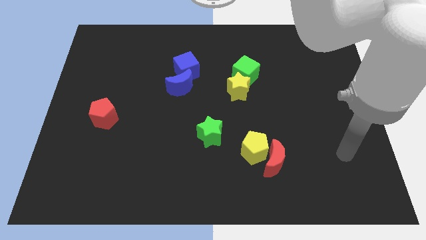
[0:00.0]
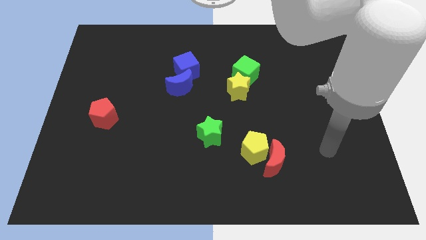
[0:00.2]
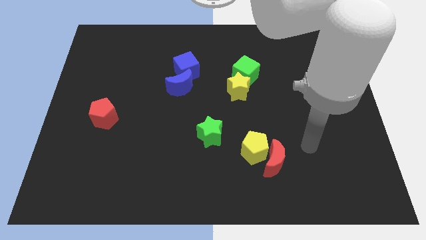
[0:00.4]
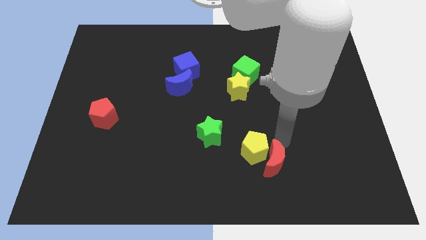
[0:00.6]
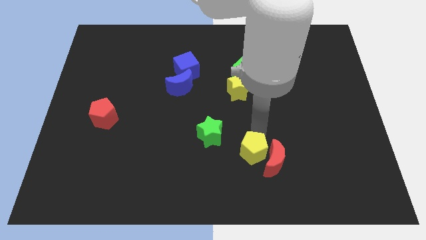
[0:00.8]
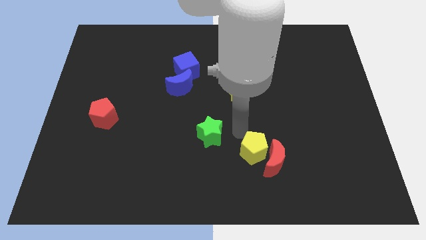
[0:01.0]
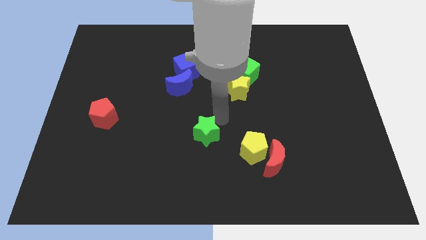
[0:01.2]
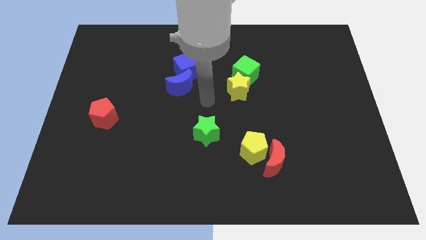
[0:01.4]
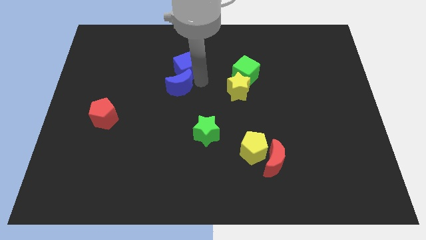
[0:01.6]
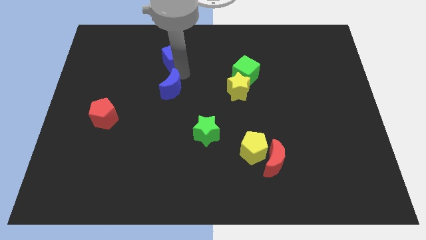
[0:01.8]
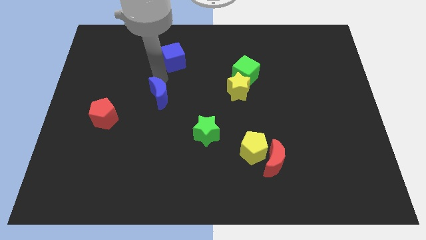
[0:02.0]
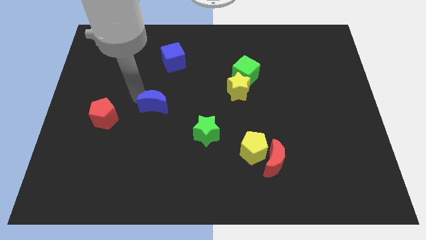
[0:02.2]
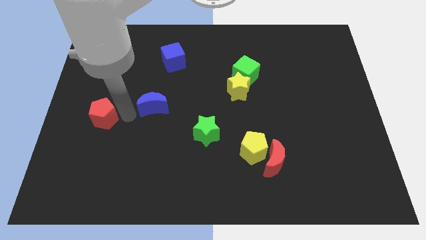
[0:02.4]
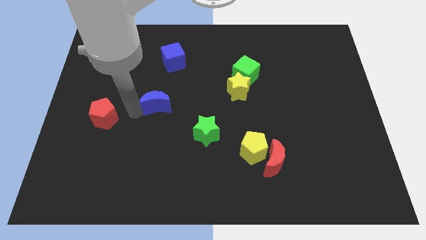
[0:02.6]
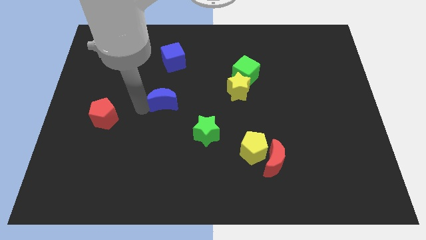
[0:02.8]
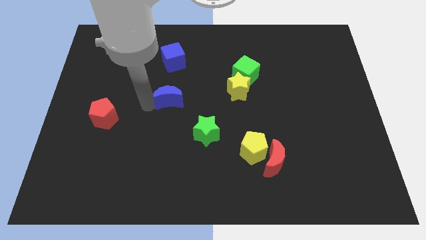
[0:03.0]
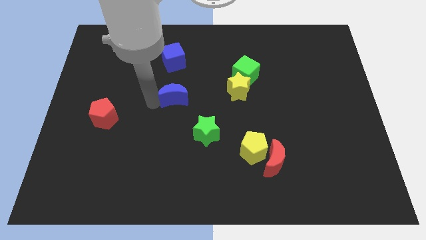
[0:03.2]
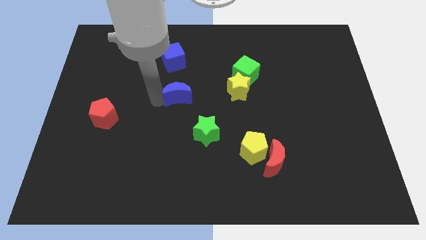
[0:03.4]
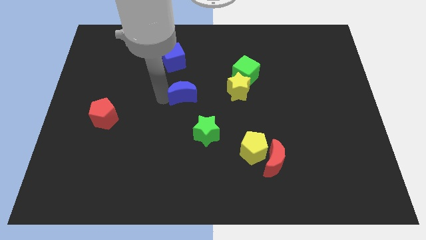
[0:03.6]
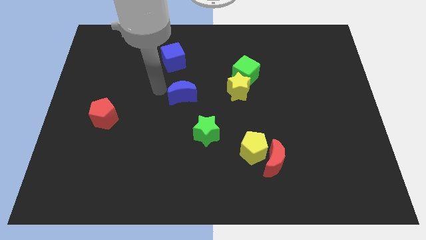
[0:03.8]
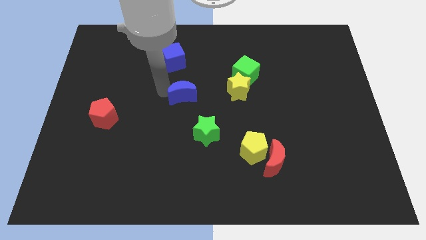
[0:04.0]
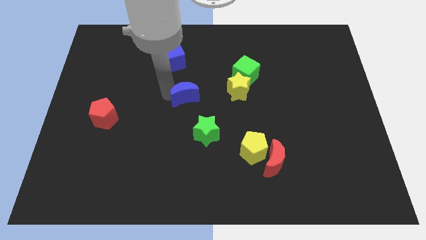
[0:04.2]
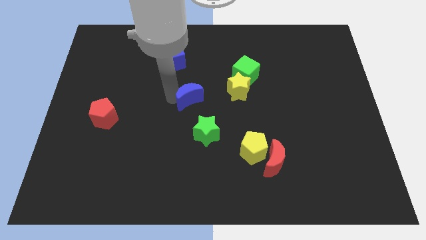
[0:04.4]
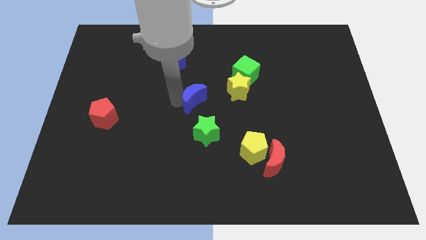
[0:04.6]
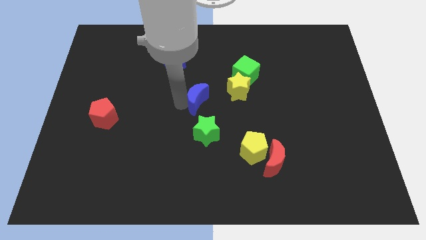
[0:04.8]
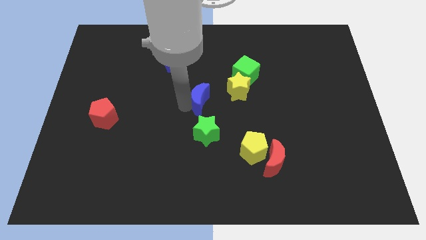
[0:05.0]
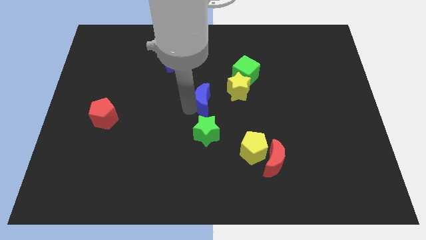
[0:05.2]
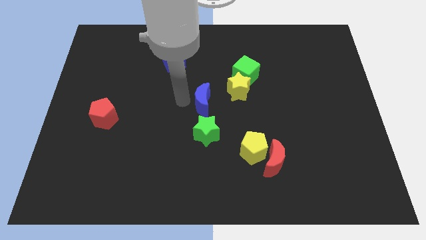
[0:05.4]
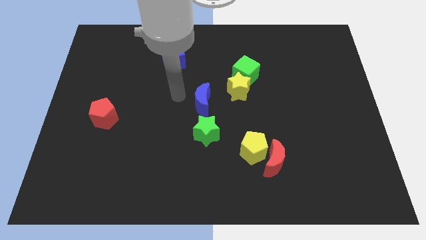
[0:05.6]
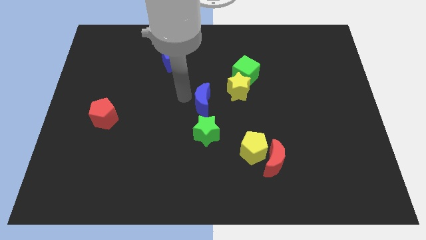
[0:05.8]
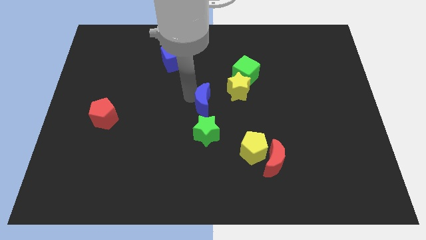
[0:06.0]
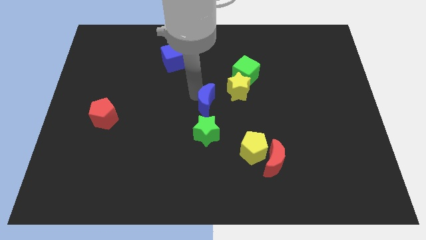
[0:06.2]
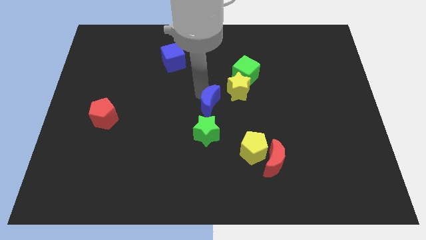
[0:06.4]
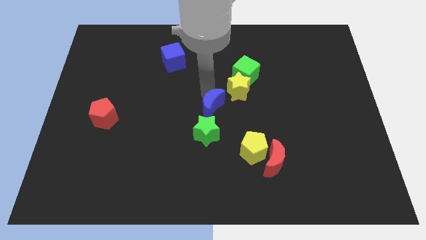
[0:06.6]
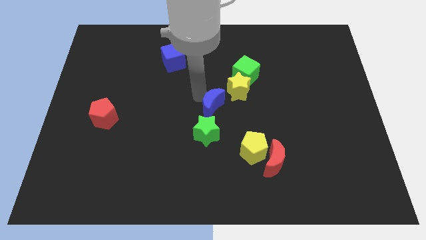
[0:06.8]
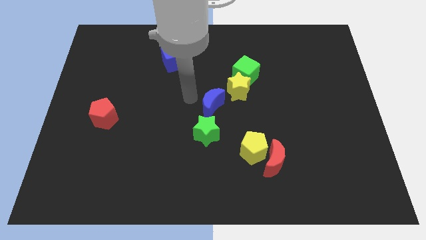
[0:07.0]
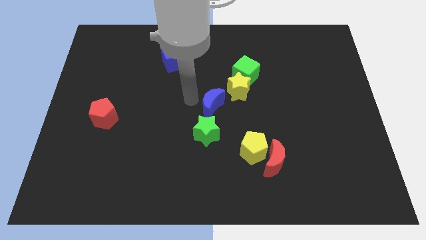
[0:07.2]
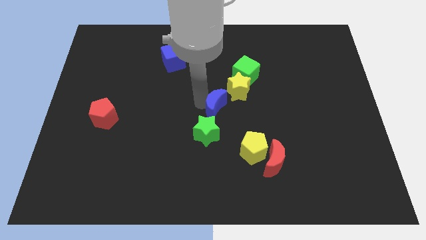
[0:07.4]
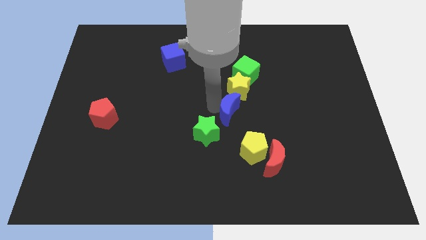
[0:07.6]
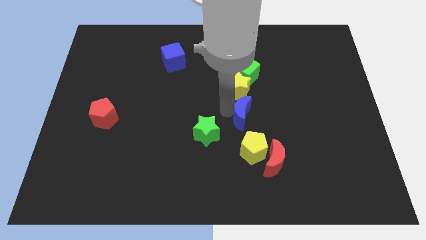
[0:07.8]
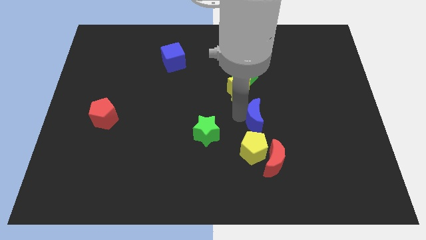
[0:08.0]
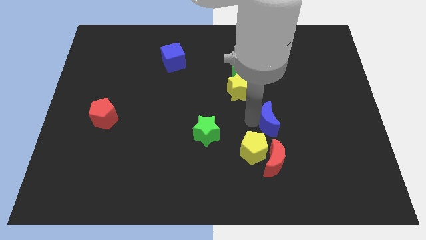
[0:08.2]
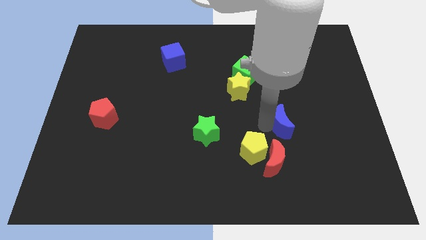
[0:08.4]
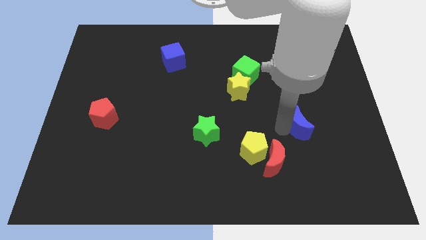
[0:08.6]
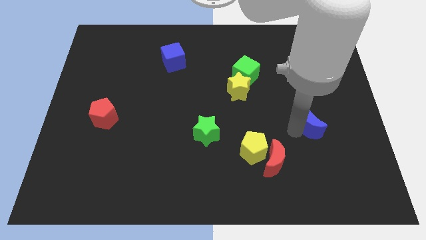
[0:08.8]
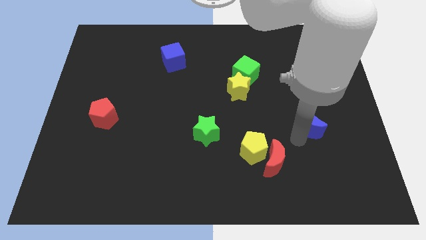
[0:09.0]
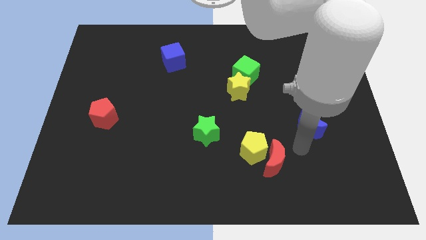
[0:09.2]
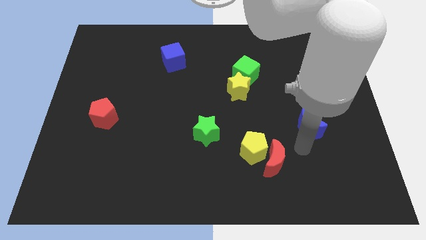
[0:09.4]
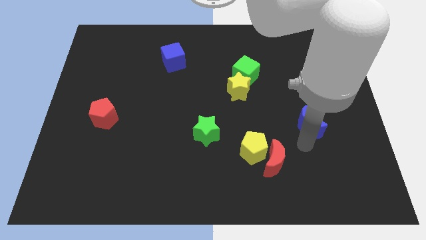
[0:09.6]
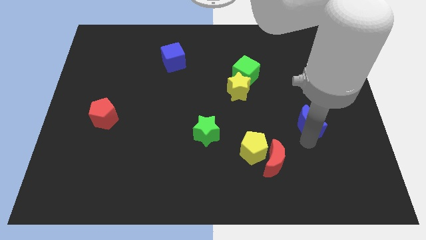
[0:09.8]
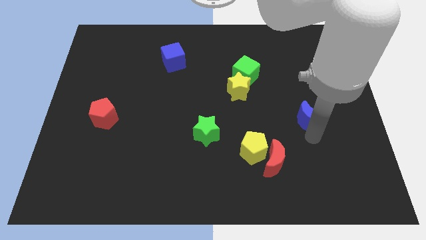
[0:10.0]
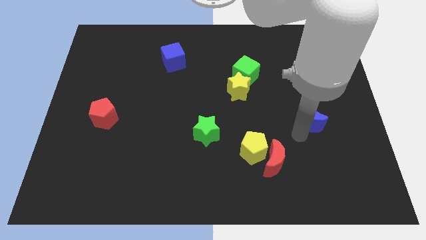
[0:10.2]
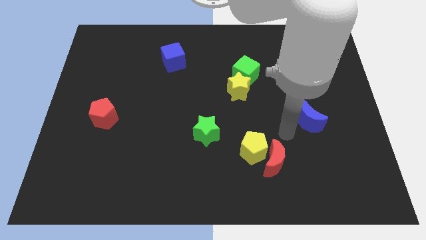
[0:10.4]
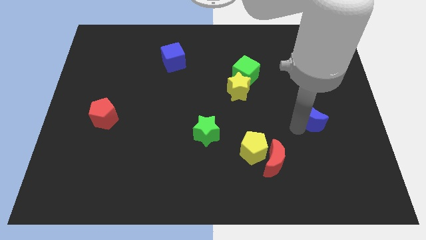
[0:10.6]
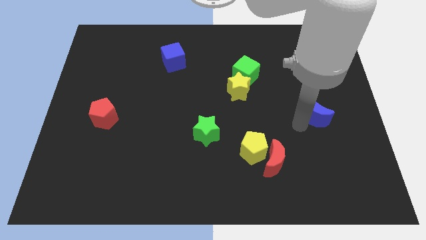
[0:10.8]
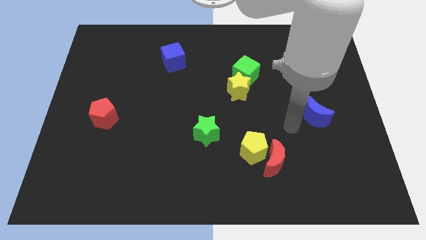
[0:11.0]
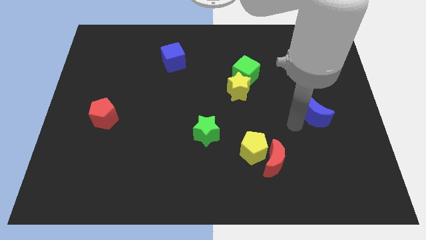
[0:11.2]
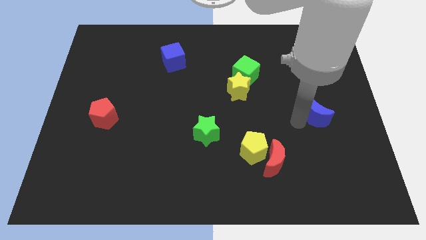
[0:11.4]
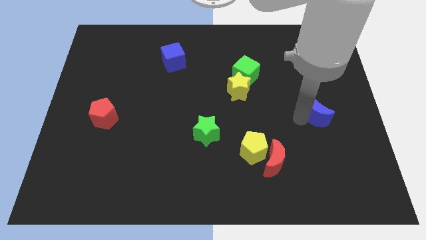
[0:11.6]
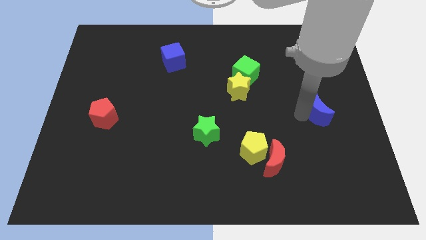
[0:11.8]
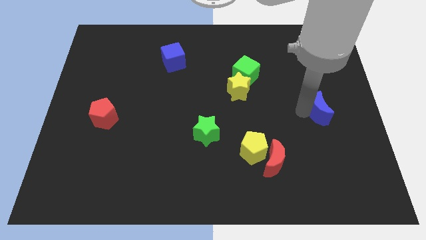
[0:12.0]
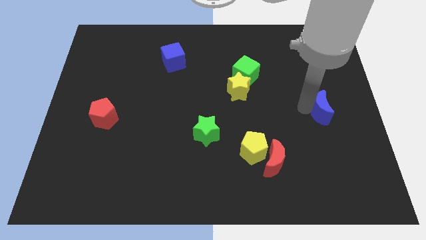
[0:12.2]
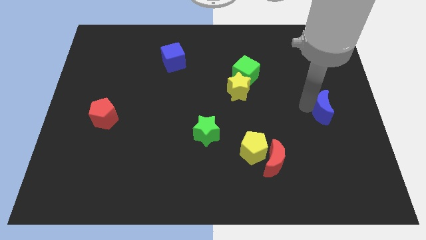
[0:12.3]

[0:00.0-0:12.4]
push the blue moon to the right side
